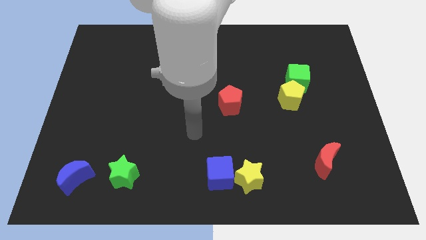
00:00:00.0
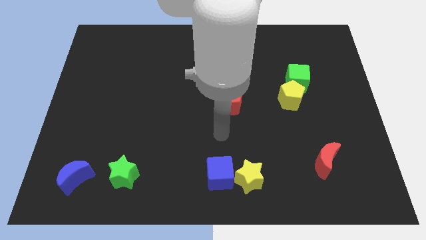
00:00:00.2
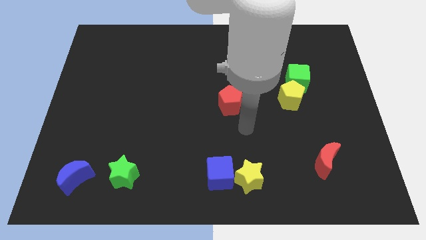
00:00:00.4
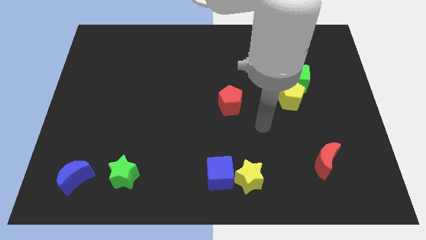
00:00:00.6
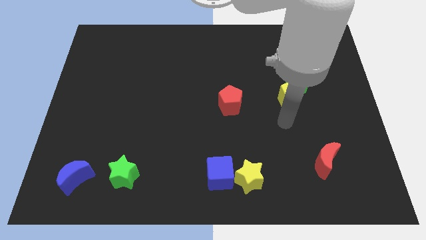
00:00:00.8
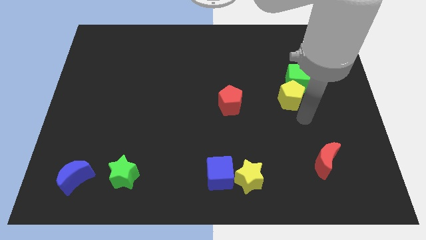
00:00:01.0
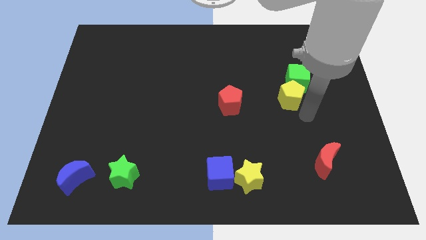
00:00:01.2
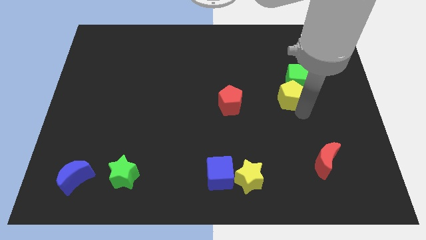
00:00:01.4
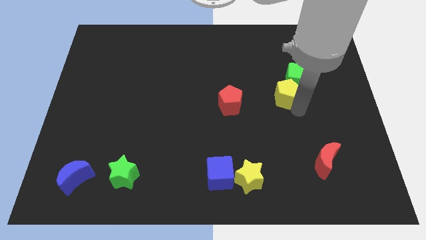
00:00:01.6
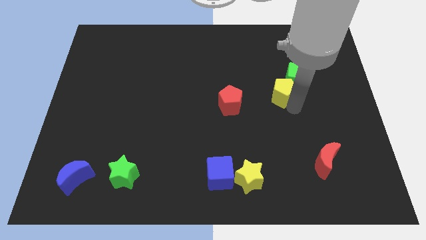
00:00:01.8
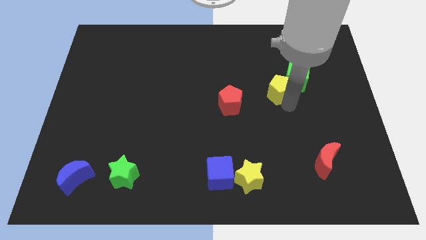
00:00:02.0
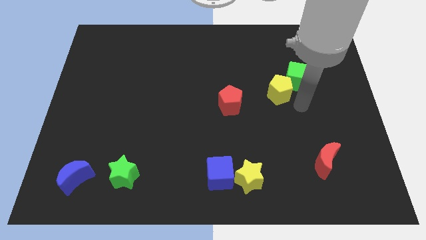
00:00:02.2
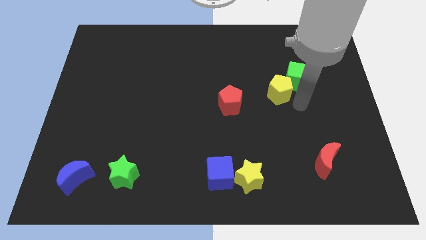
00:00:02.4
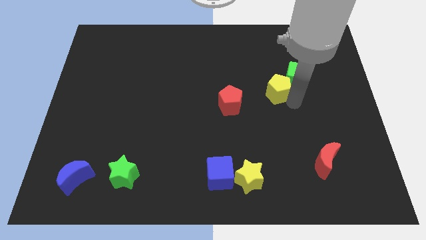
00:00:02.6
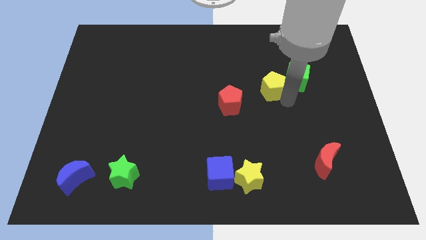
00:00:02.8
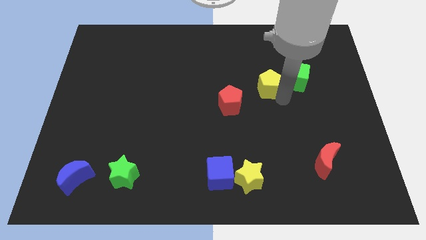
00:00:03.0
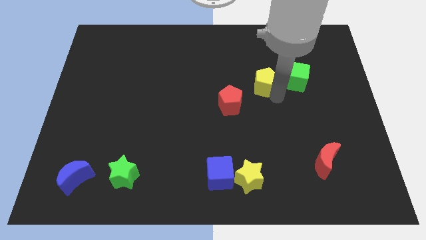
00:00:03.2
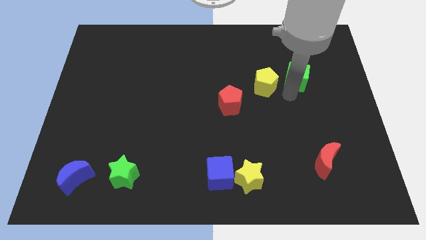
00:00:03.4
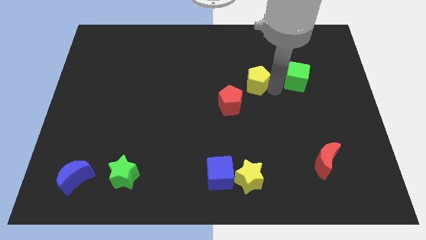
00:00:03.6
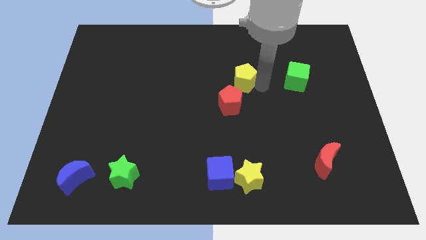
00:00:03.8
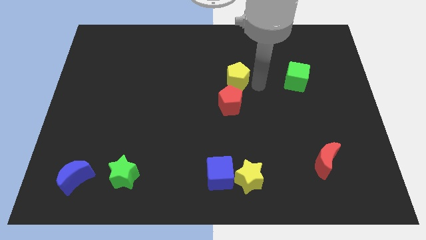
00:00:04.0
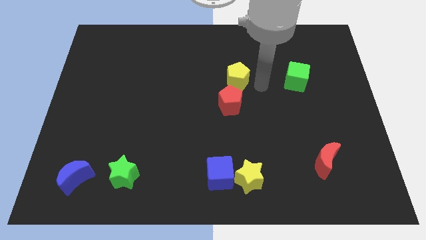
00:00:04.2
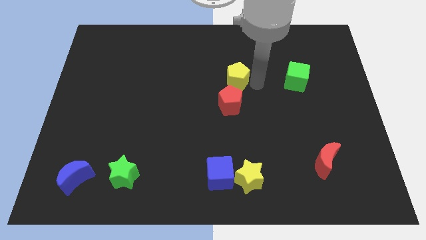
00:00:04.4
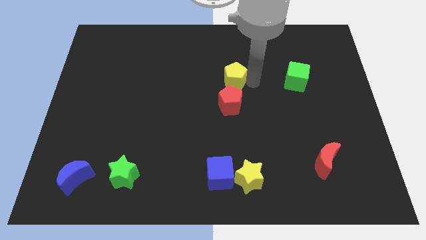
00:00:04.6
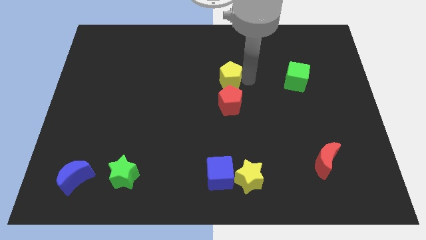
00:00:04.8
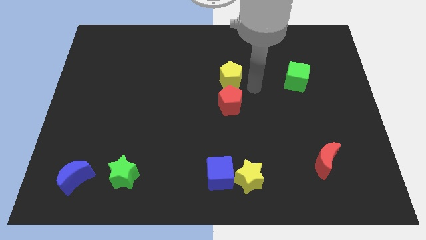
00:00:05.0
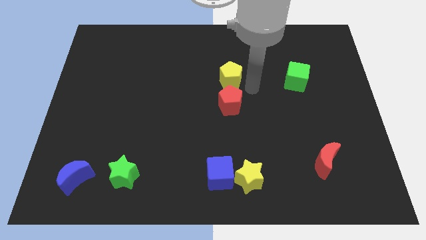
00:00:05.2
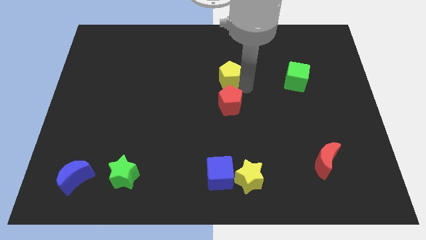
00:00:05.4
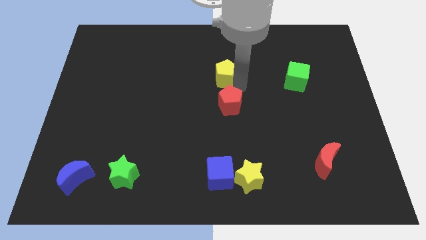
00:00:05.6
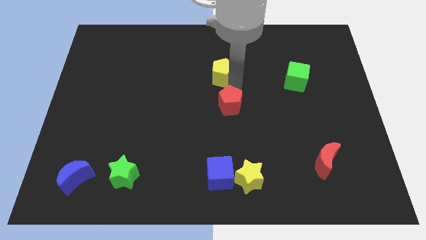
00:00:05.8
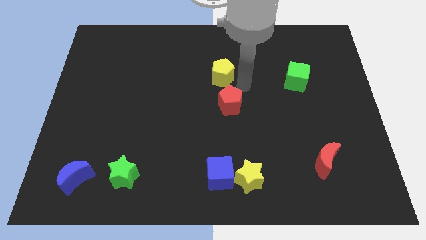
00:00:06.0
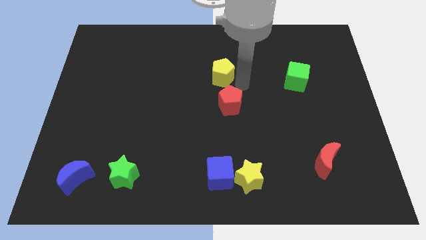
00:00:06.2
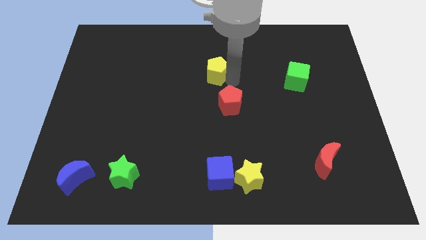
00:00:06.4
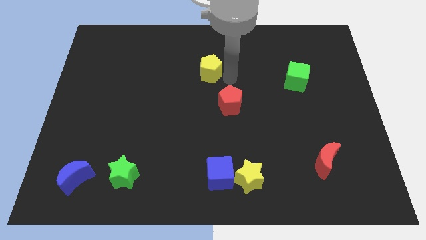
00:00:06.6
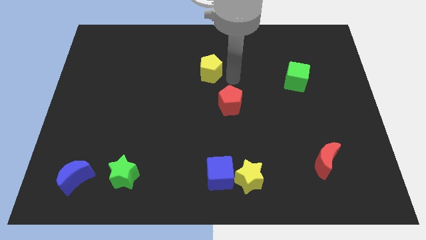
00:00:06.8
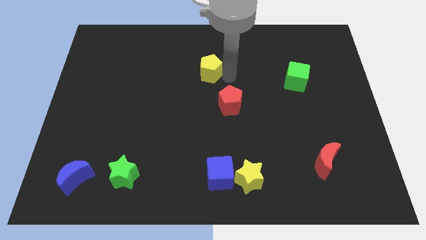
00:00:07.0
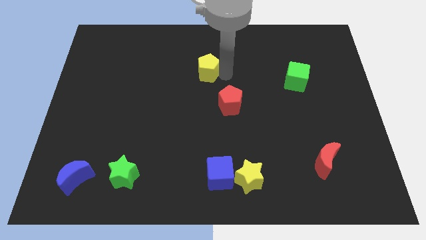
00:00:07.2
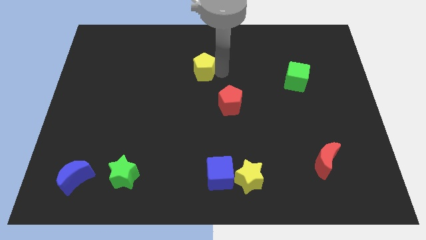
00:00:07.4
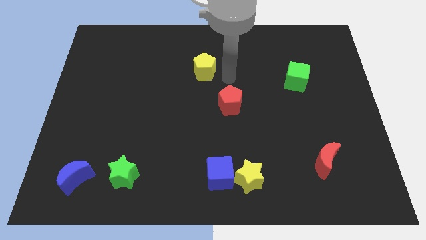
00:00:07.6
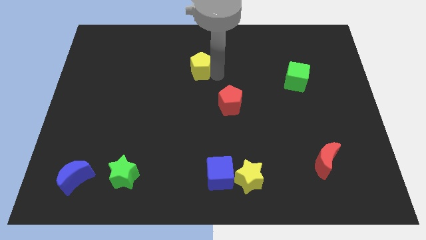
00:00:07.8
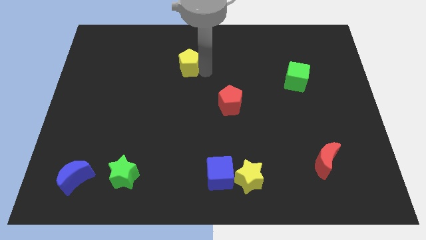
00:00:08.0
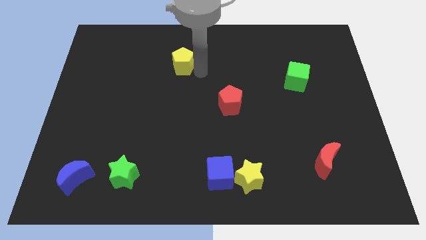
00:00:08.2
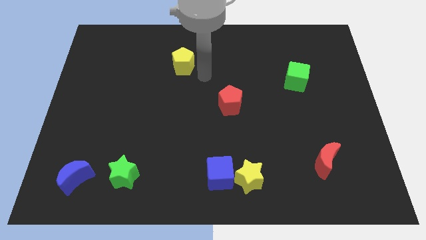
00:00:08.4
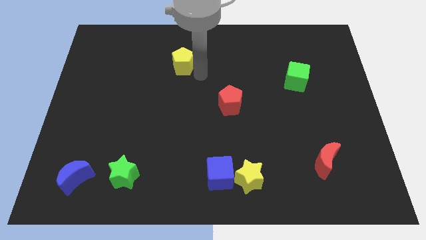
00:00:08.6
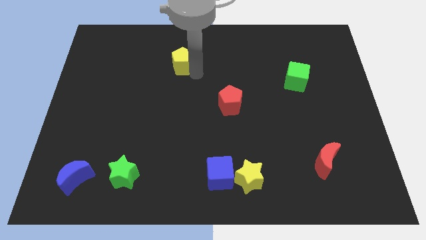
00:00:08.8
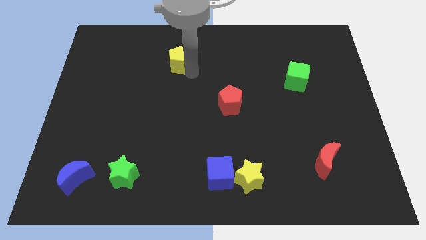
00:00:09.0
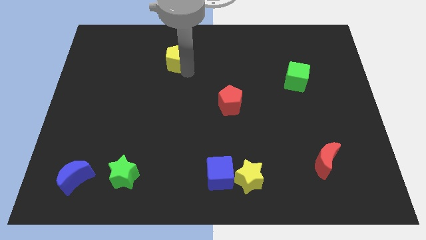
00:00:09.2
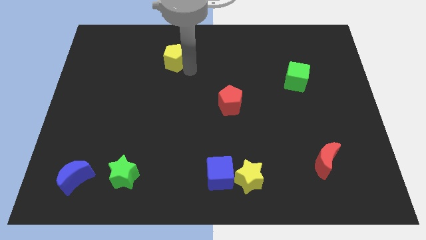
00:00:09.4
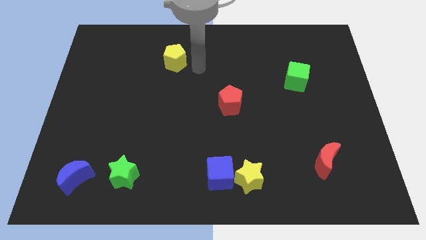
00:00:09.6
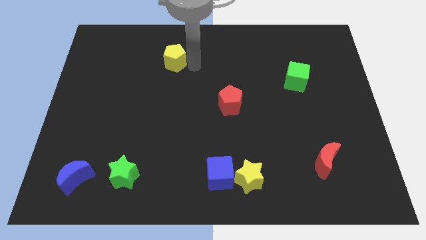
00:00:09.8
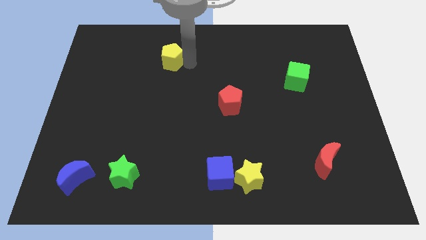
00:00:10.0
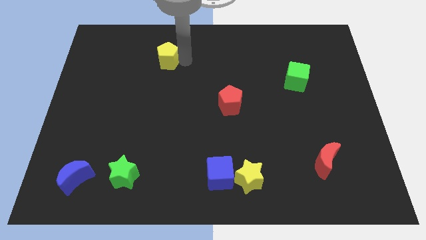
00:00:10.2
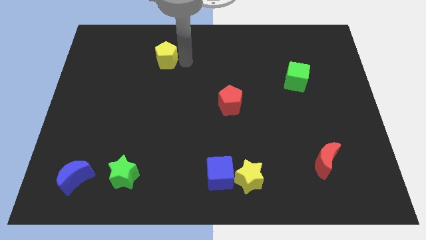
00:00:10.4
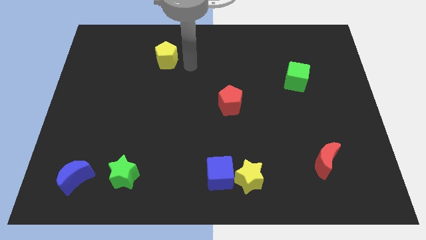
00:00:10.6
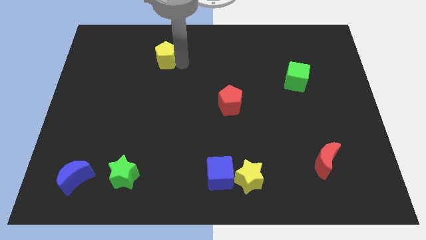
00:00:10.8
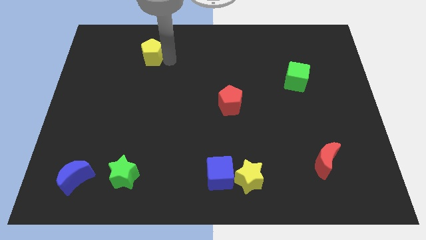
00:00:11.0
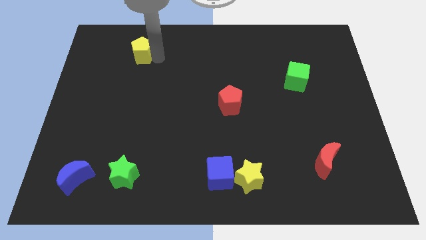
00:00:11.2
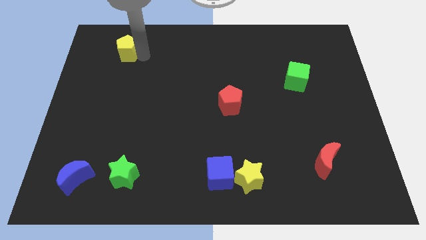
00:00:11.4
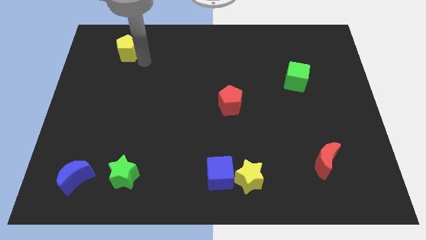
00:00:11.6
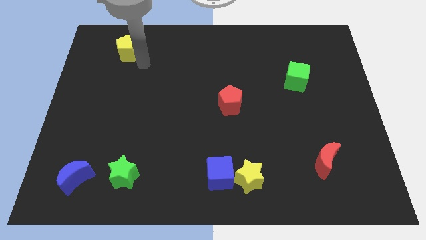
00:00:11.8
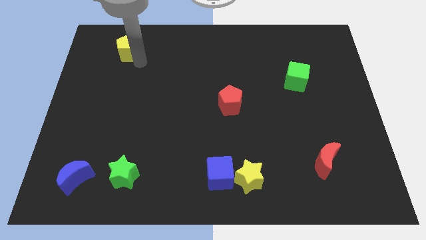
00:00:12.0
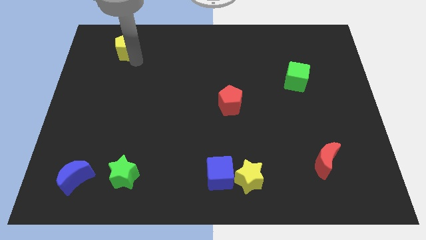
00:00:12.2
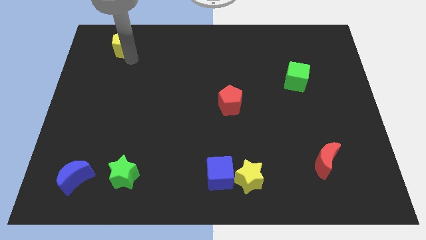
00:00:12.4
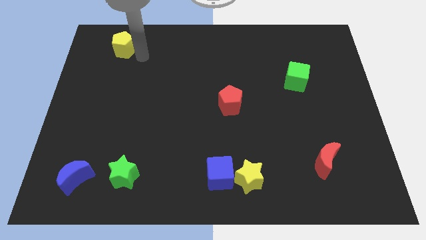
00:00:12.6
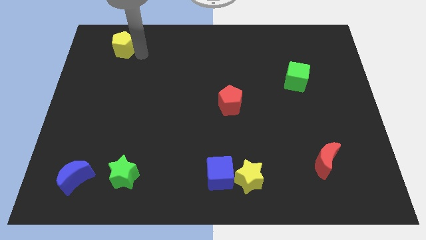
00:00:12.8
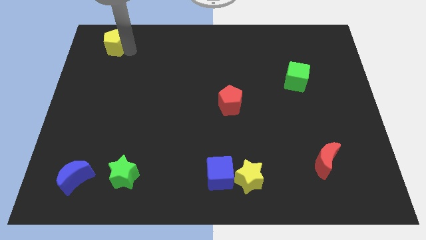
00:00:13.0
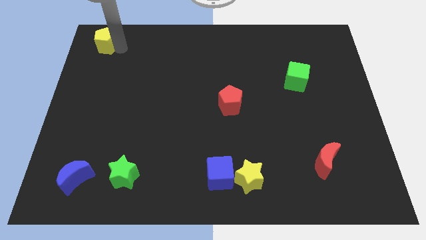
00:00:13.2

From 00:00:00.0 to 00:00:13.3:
slide the yellow pentagon to the top left corner
